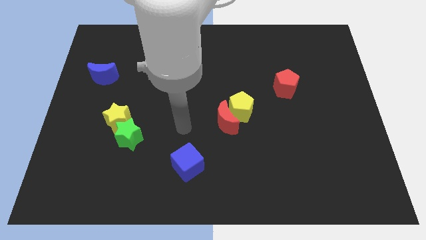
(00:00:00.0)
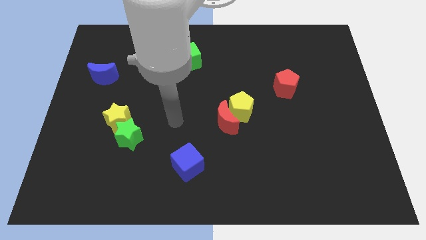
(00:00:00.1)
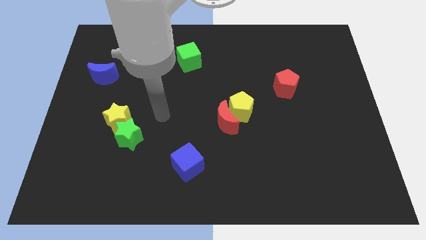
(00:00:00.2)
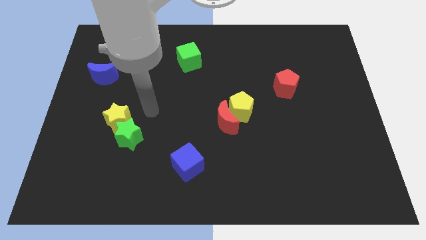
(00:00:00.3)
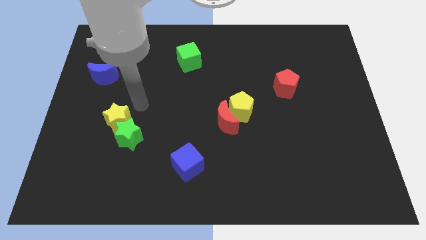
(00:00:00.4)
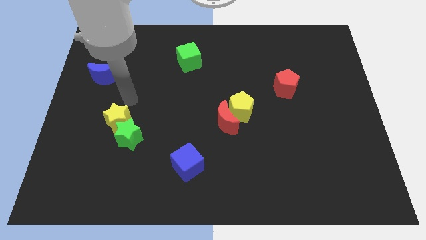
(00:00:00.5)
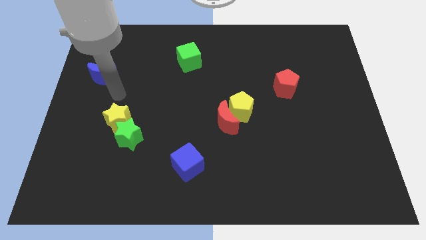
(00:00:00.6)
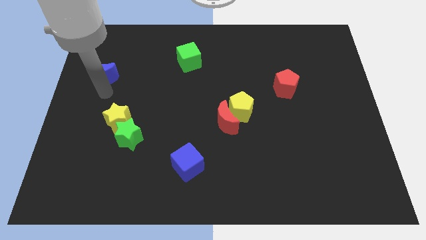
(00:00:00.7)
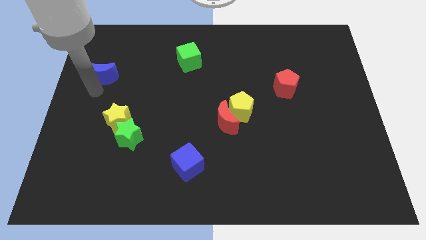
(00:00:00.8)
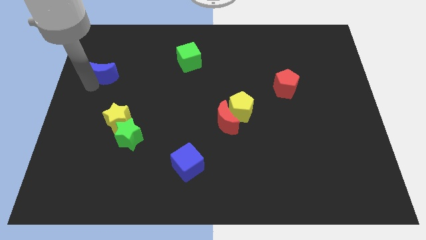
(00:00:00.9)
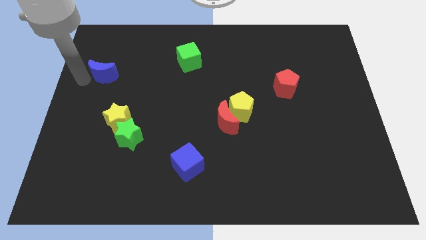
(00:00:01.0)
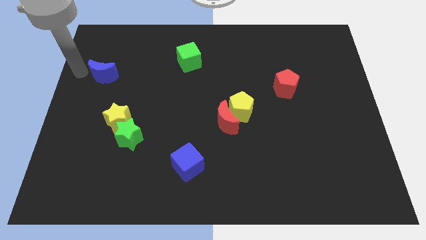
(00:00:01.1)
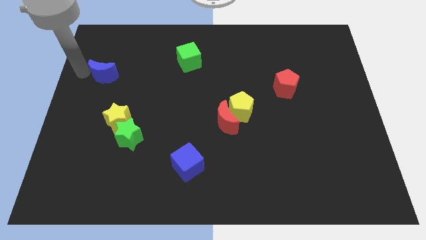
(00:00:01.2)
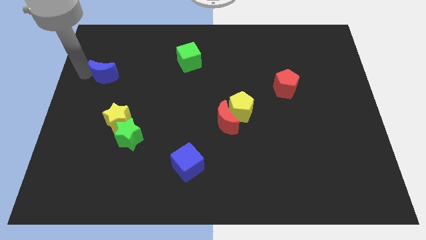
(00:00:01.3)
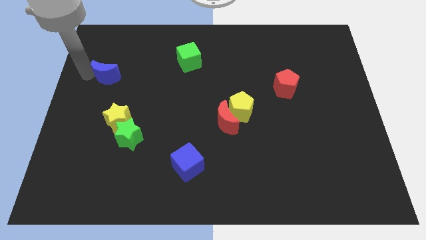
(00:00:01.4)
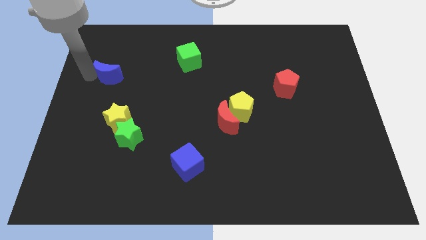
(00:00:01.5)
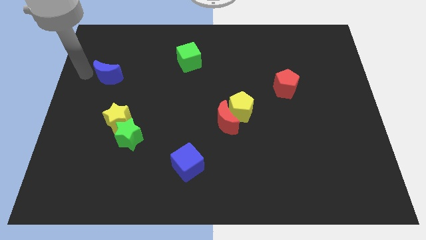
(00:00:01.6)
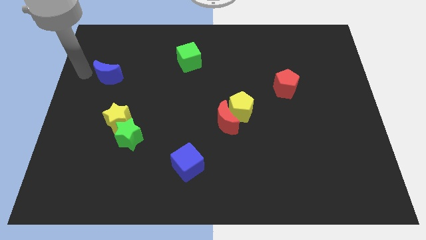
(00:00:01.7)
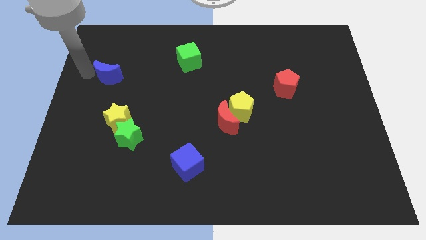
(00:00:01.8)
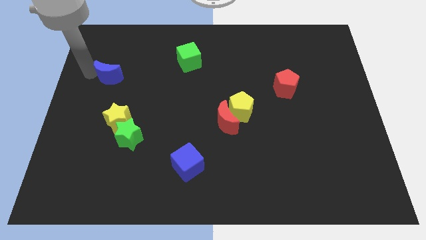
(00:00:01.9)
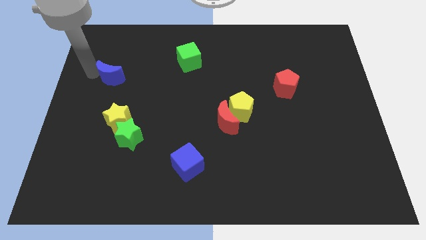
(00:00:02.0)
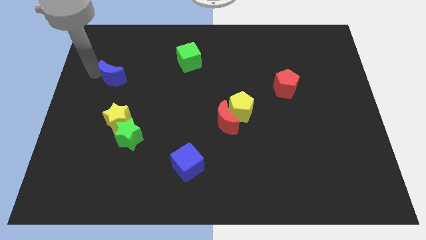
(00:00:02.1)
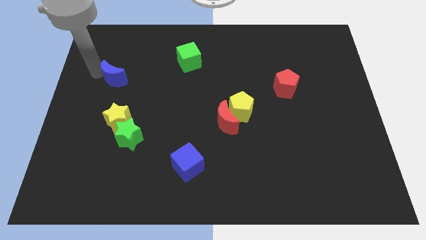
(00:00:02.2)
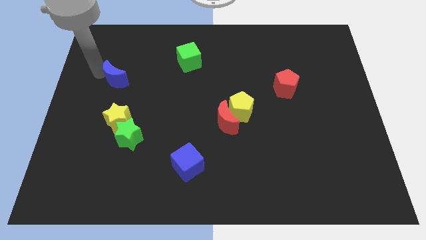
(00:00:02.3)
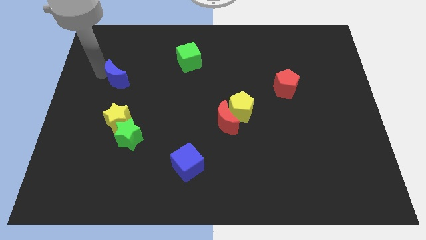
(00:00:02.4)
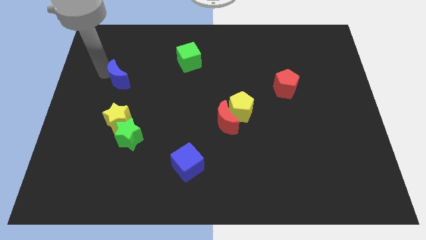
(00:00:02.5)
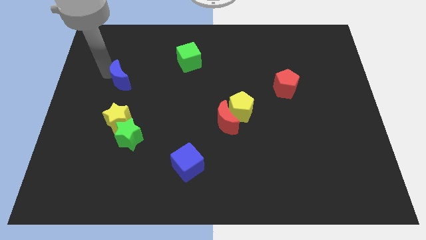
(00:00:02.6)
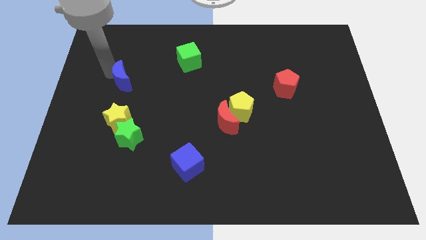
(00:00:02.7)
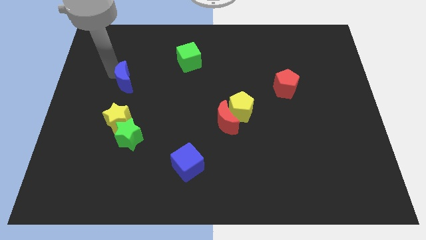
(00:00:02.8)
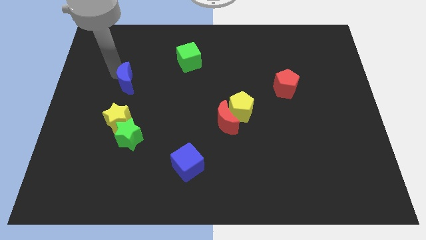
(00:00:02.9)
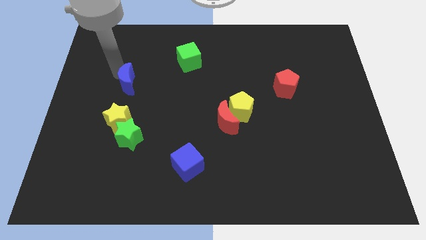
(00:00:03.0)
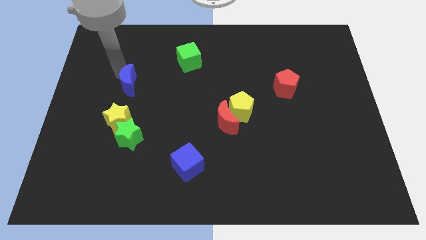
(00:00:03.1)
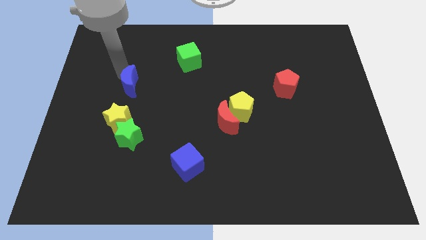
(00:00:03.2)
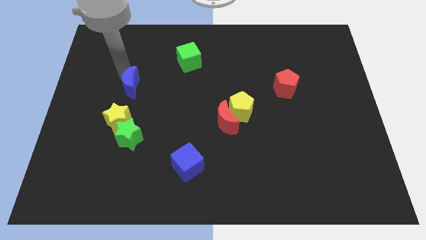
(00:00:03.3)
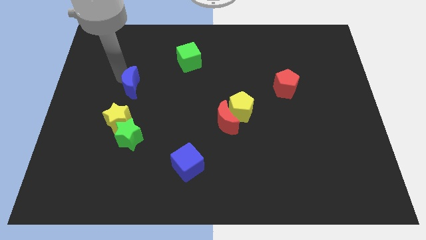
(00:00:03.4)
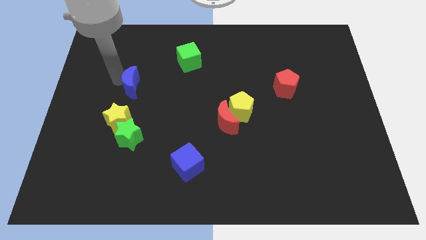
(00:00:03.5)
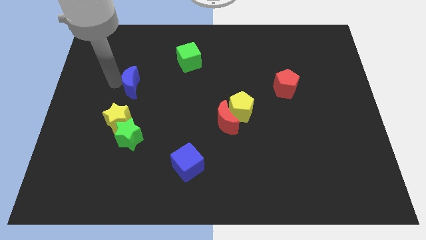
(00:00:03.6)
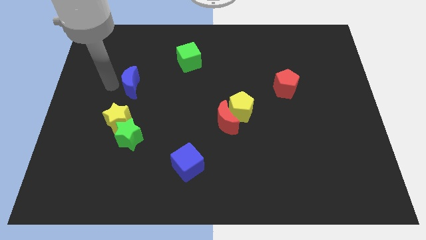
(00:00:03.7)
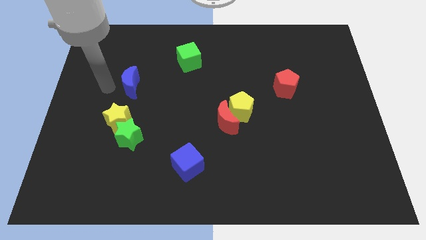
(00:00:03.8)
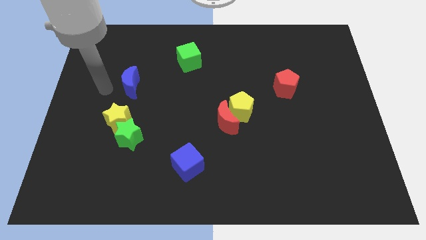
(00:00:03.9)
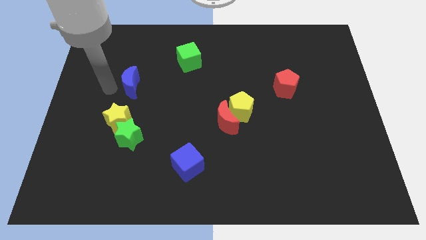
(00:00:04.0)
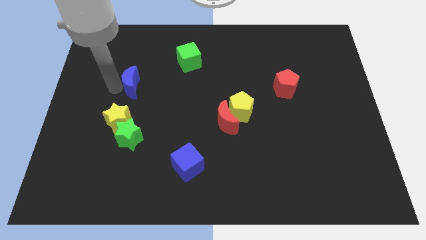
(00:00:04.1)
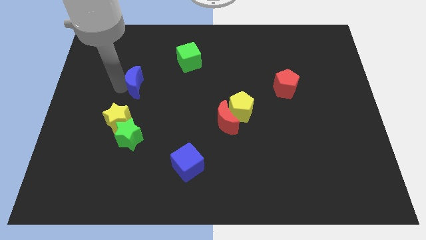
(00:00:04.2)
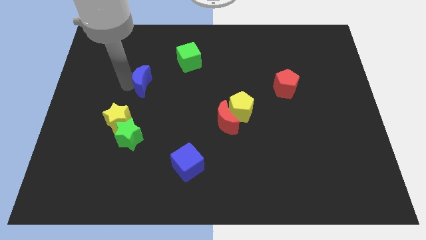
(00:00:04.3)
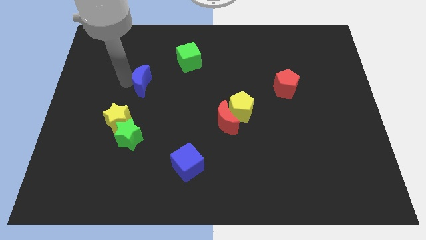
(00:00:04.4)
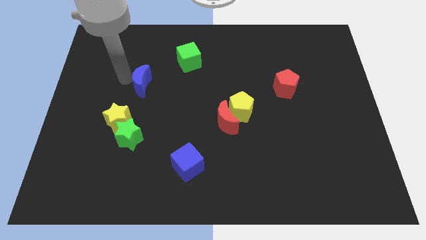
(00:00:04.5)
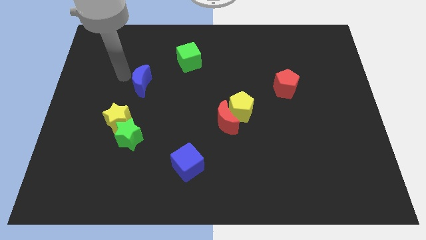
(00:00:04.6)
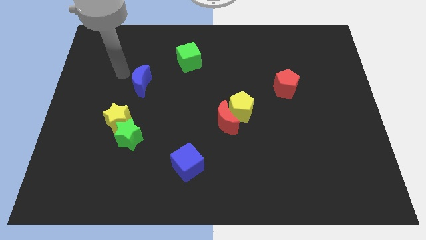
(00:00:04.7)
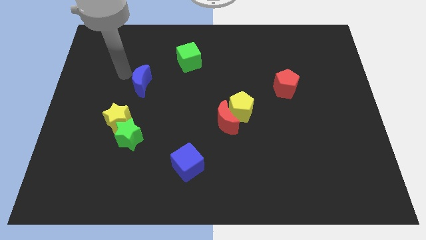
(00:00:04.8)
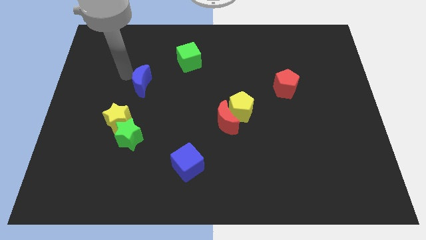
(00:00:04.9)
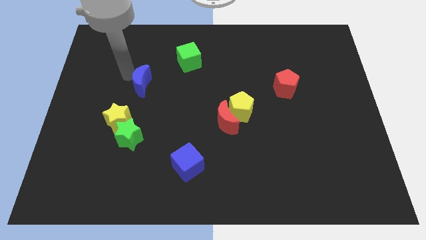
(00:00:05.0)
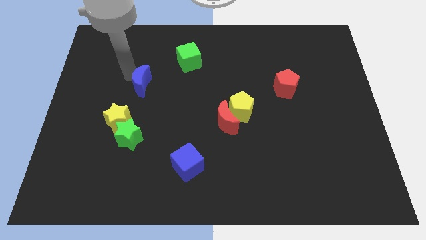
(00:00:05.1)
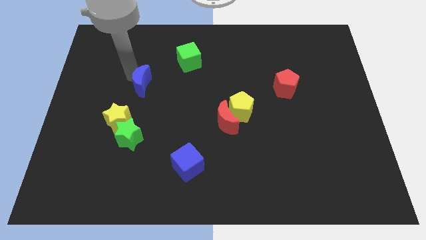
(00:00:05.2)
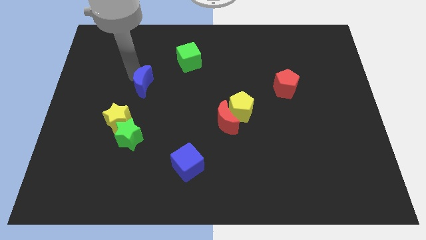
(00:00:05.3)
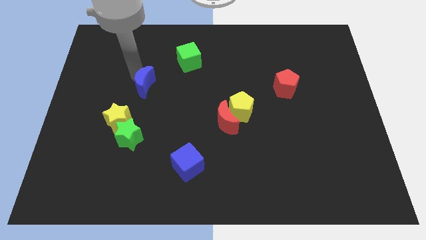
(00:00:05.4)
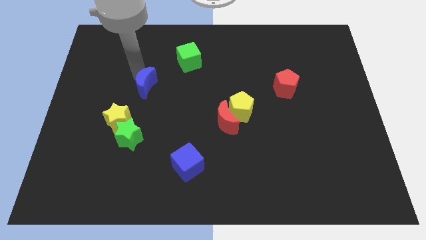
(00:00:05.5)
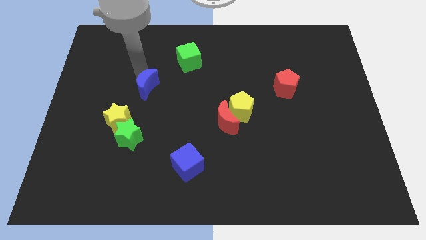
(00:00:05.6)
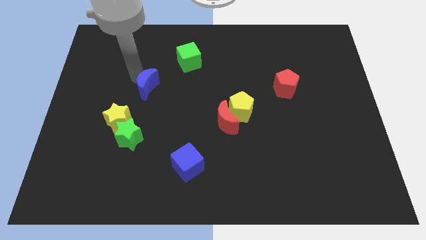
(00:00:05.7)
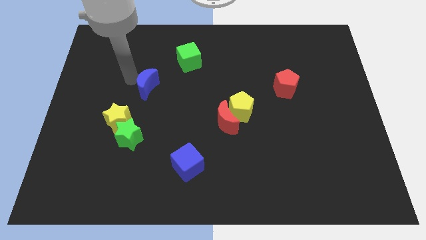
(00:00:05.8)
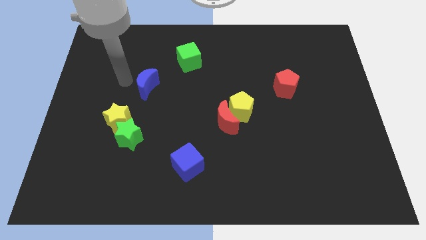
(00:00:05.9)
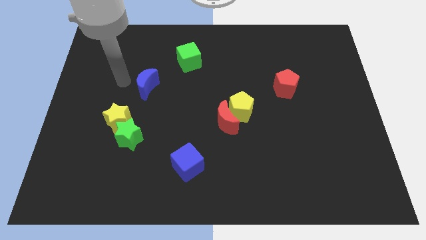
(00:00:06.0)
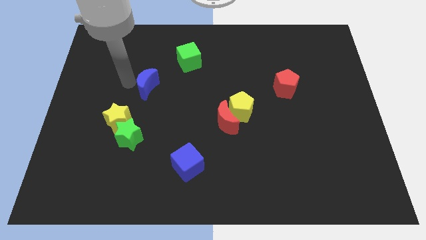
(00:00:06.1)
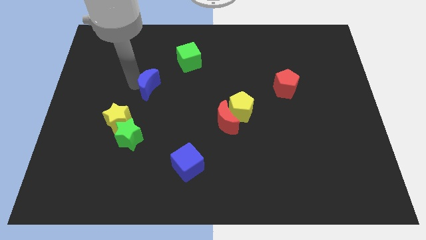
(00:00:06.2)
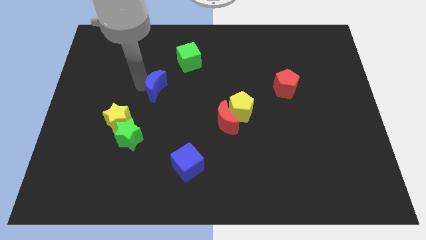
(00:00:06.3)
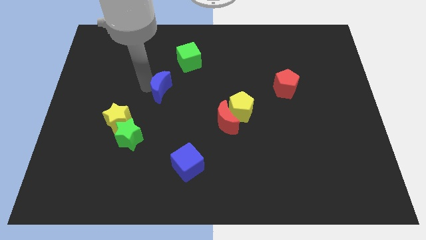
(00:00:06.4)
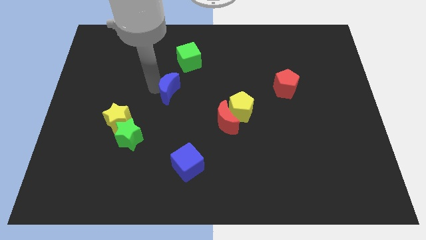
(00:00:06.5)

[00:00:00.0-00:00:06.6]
move the blue moon to the middle of the board
